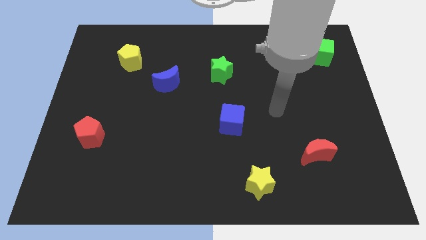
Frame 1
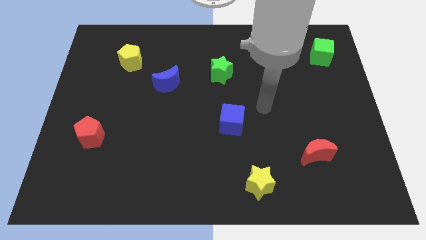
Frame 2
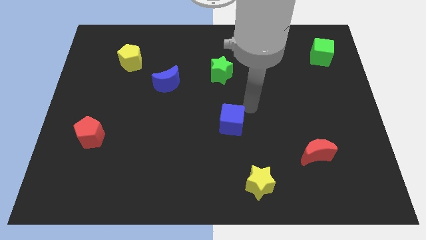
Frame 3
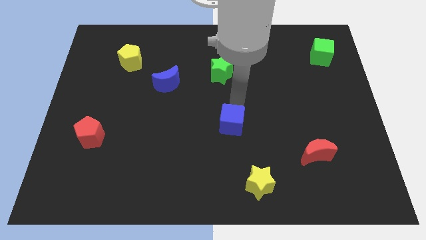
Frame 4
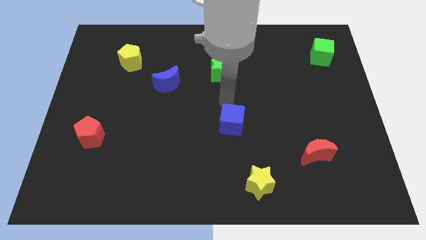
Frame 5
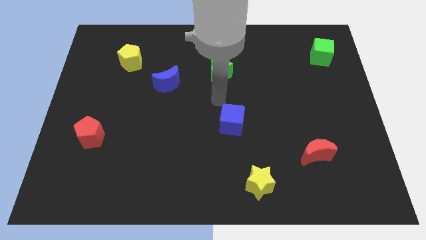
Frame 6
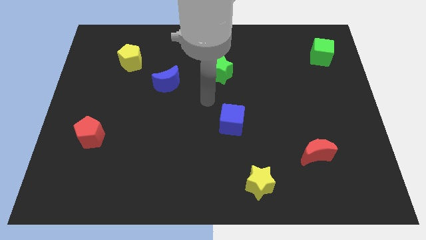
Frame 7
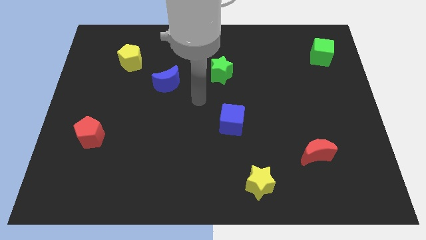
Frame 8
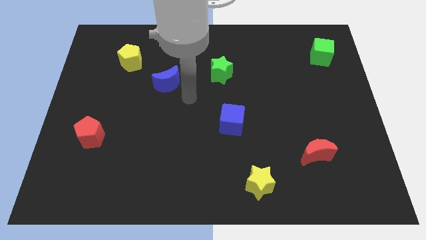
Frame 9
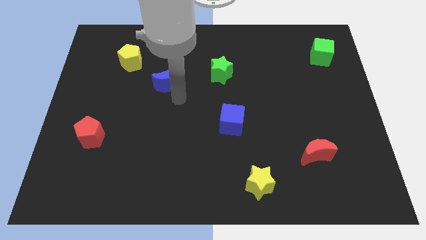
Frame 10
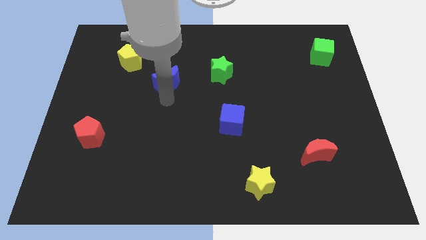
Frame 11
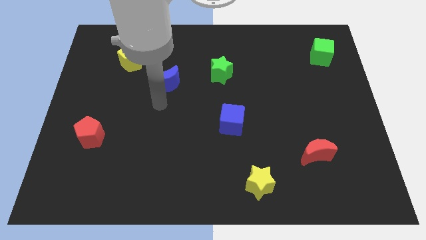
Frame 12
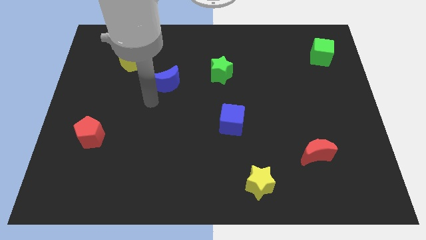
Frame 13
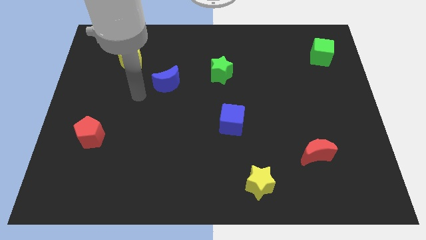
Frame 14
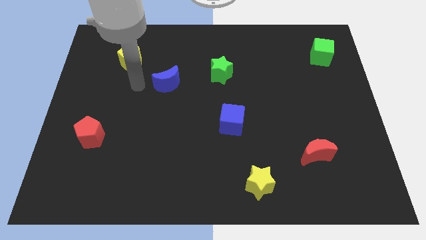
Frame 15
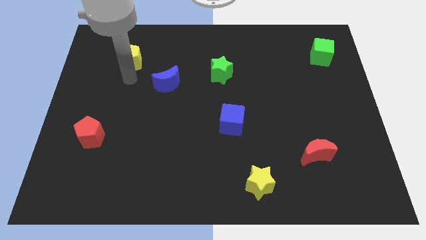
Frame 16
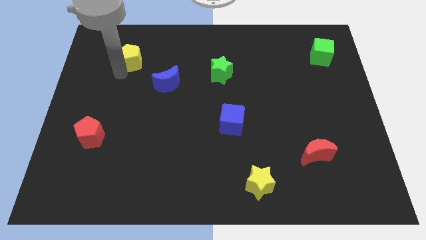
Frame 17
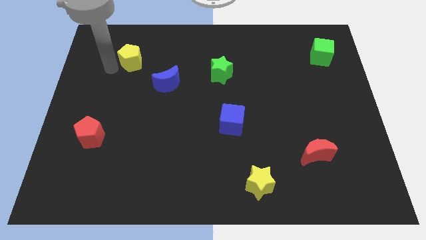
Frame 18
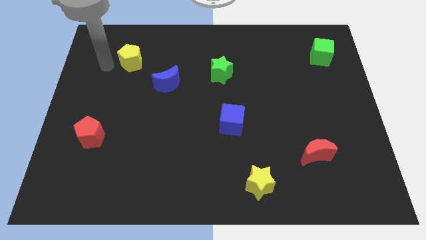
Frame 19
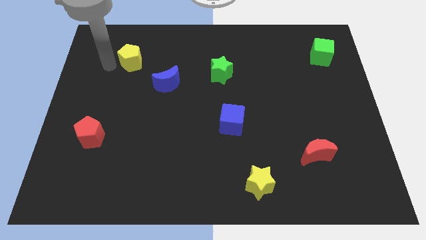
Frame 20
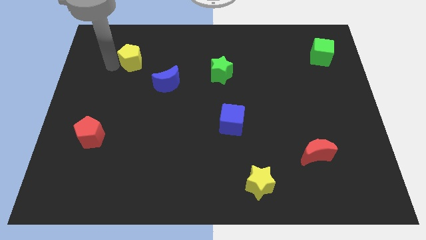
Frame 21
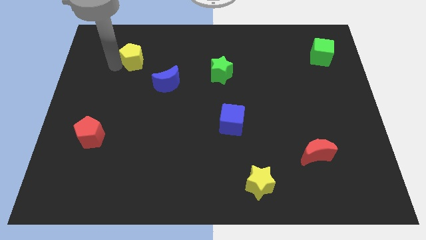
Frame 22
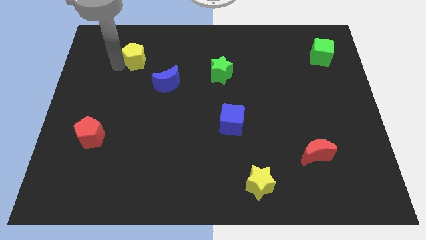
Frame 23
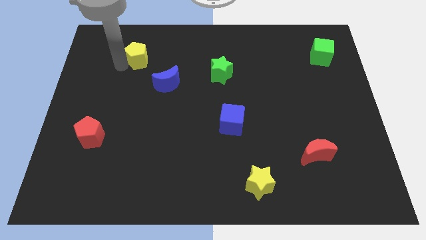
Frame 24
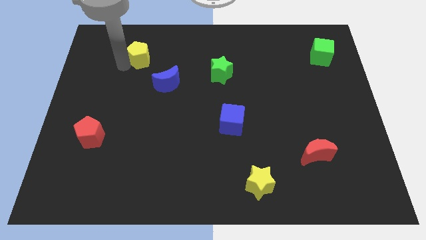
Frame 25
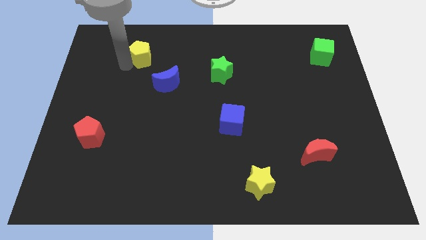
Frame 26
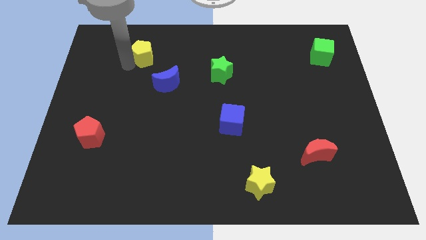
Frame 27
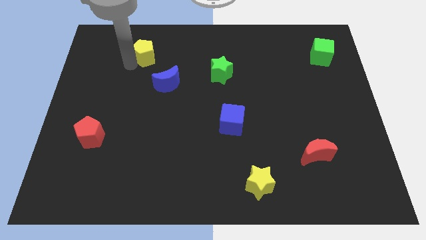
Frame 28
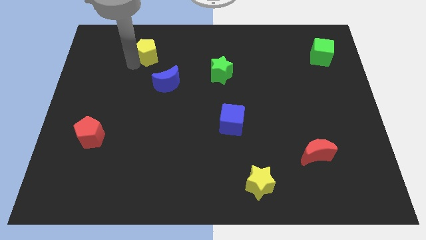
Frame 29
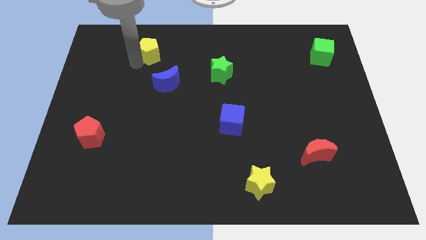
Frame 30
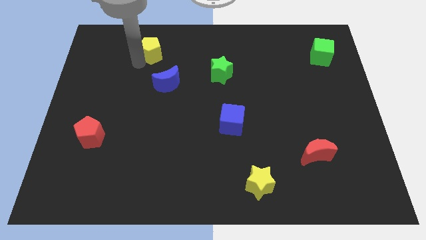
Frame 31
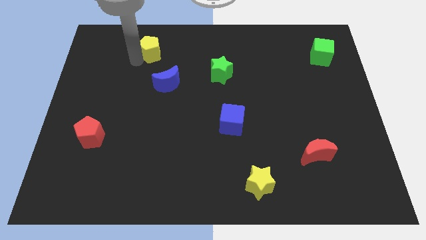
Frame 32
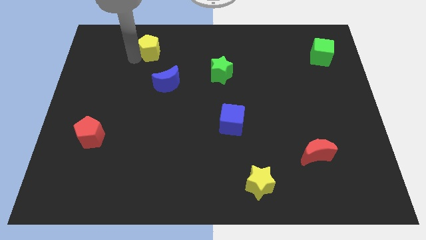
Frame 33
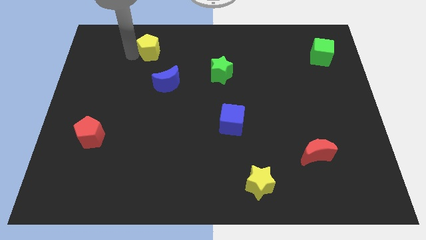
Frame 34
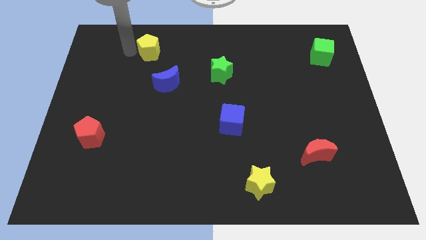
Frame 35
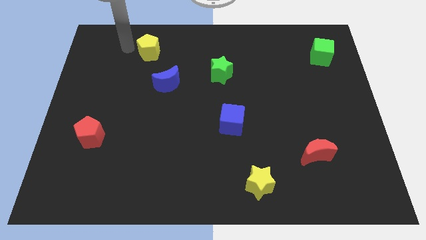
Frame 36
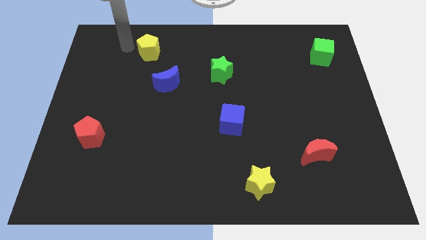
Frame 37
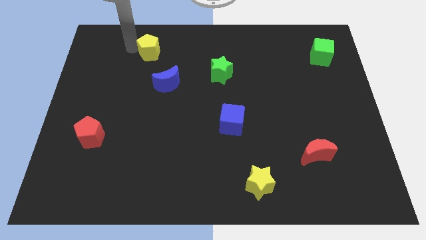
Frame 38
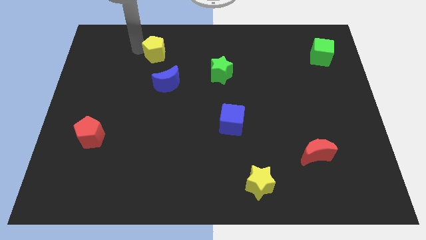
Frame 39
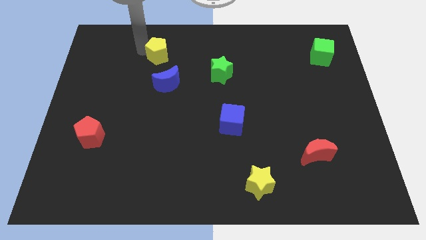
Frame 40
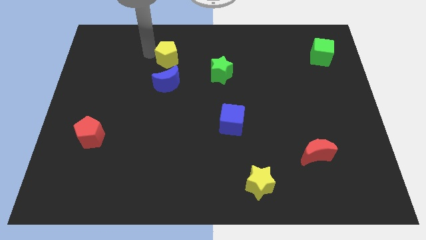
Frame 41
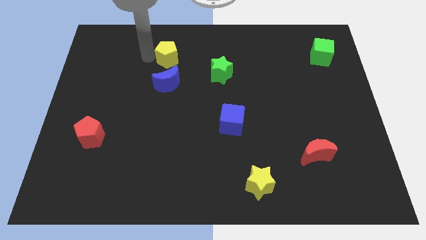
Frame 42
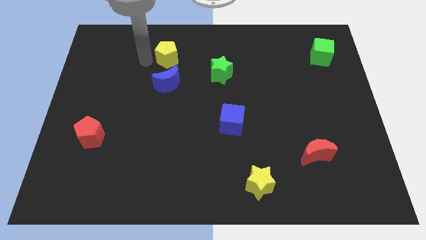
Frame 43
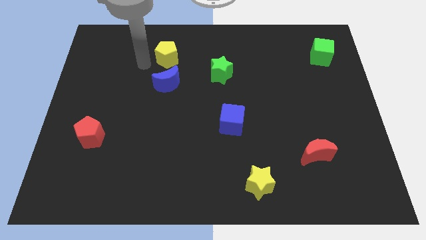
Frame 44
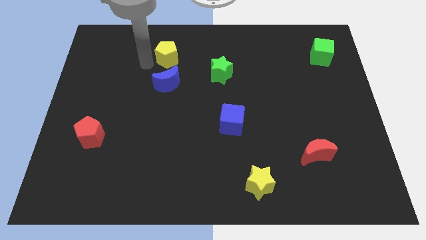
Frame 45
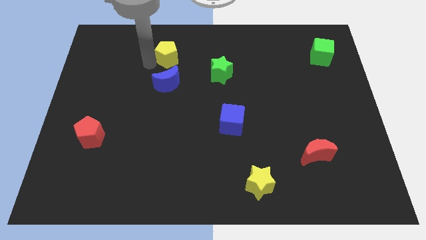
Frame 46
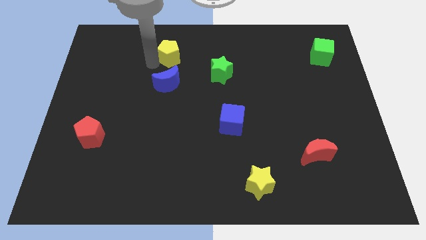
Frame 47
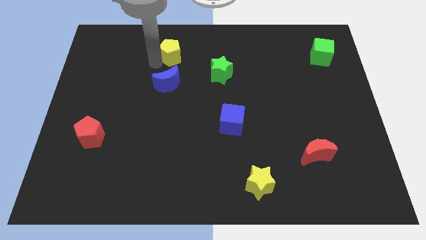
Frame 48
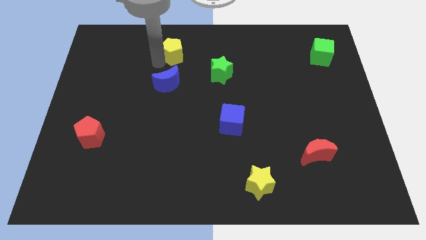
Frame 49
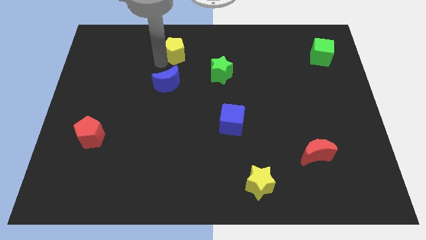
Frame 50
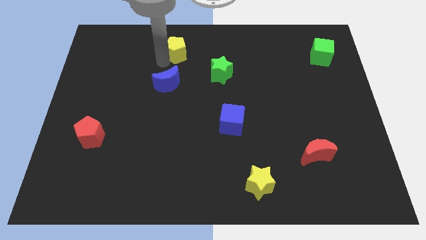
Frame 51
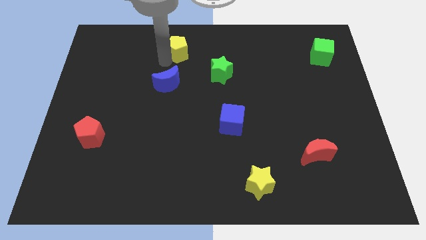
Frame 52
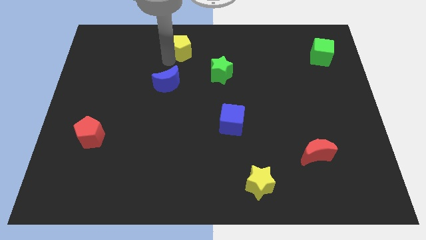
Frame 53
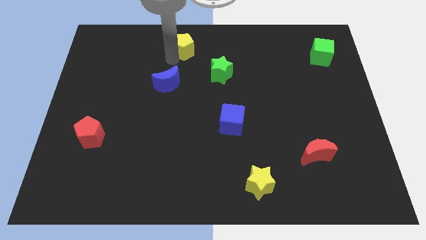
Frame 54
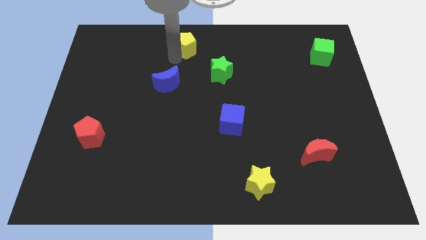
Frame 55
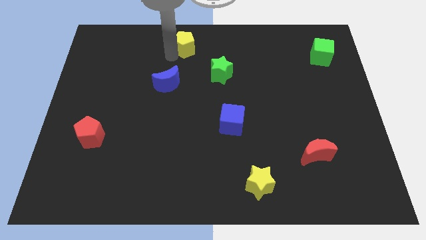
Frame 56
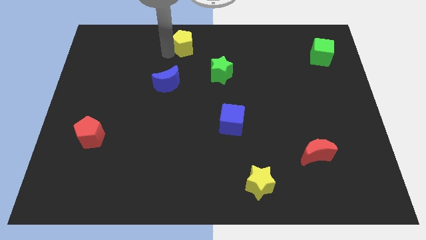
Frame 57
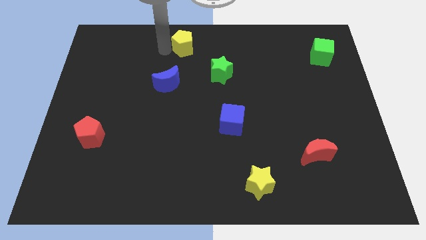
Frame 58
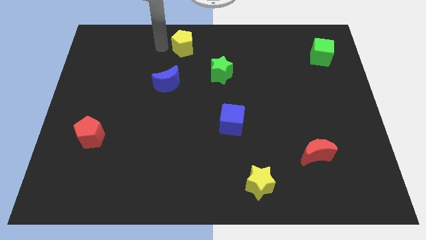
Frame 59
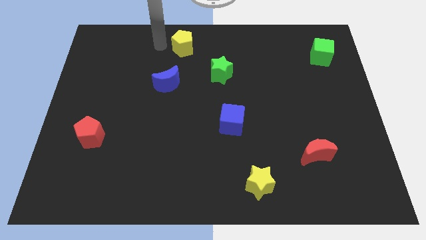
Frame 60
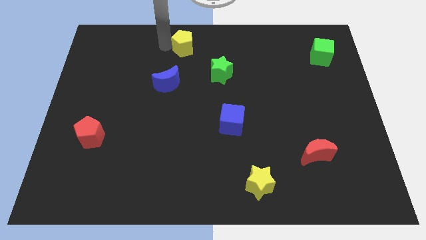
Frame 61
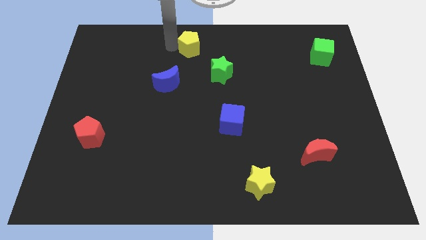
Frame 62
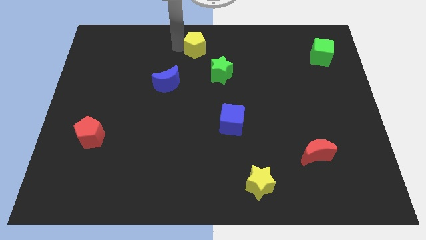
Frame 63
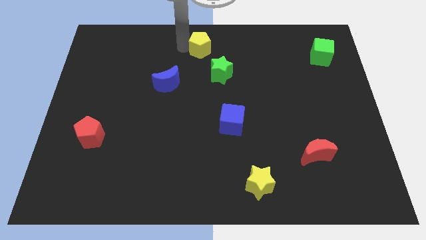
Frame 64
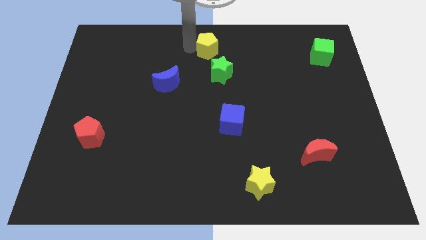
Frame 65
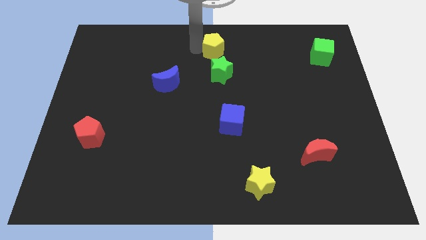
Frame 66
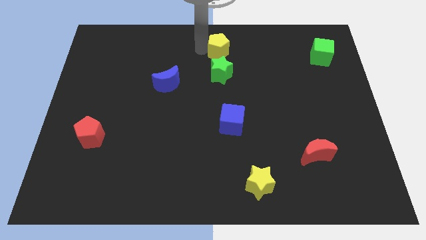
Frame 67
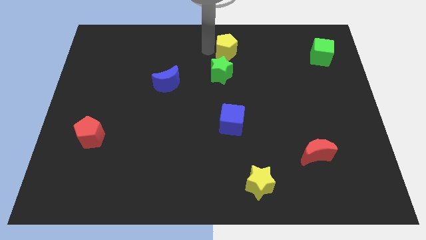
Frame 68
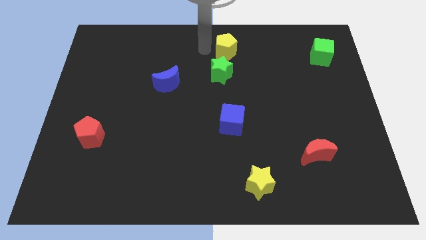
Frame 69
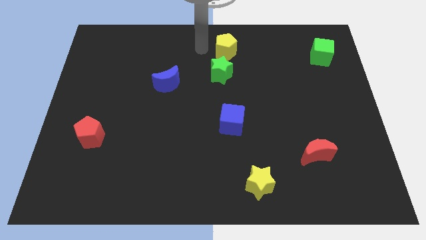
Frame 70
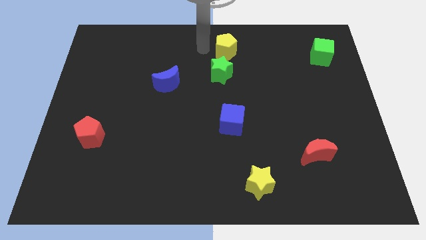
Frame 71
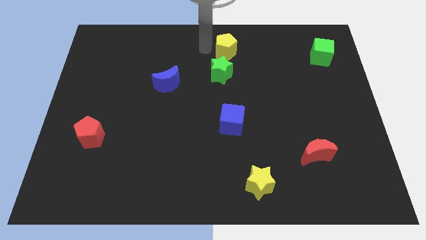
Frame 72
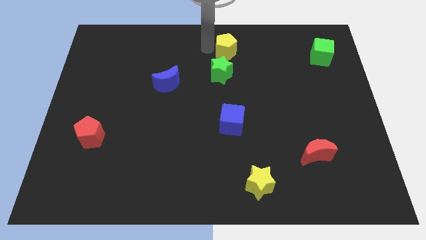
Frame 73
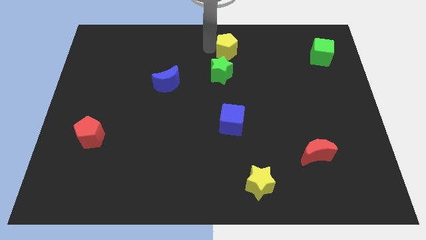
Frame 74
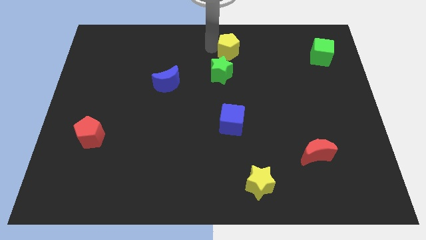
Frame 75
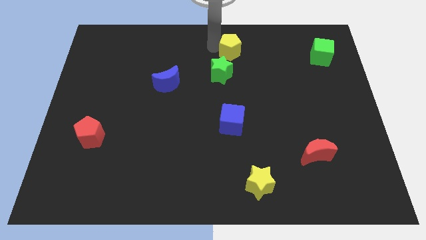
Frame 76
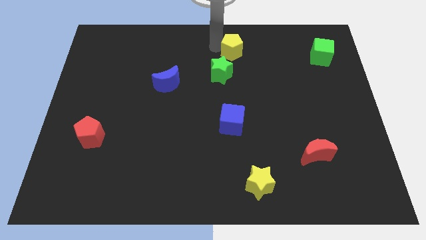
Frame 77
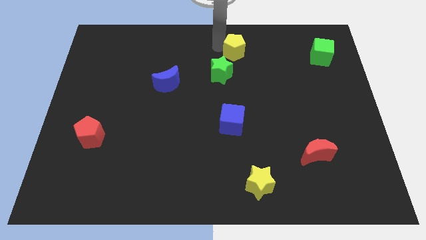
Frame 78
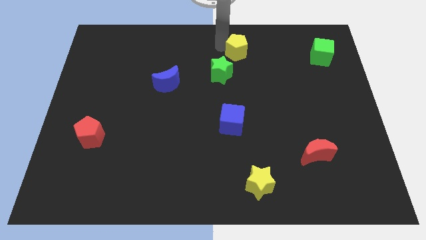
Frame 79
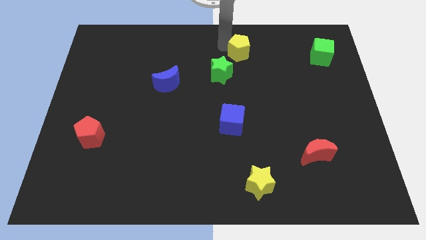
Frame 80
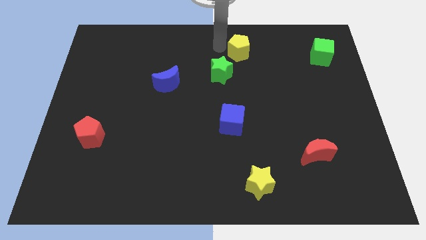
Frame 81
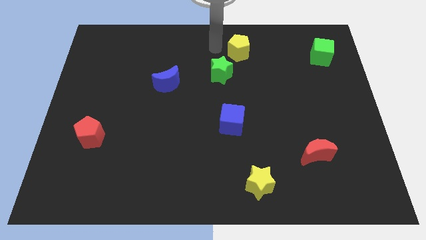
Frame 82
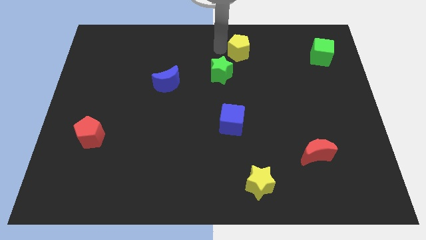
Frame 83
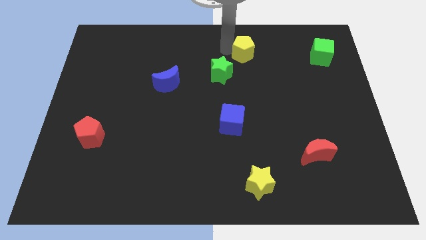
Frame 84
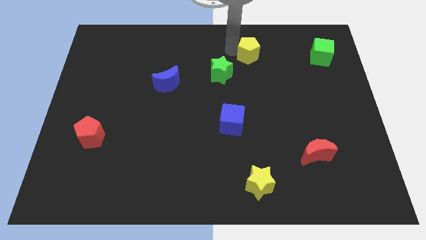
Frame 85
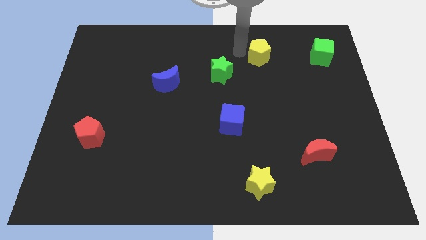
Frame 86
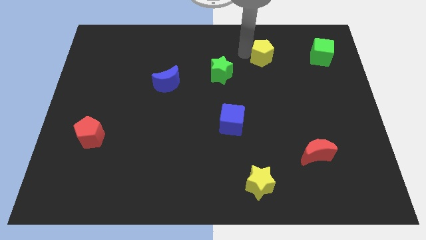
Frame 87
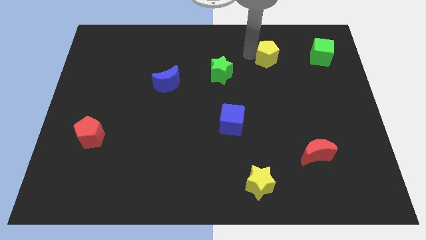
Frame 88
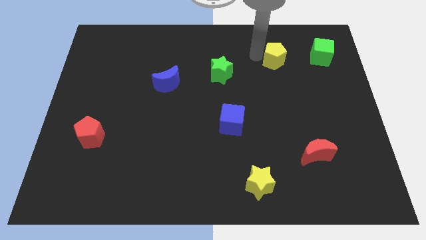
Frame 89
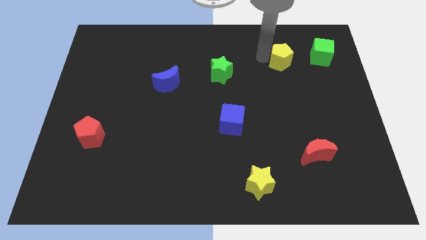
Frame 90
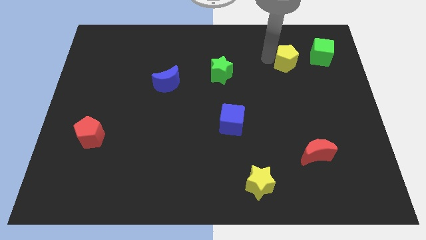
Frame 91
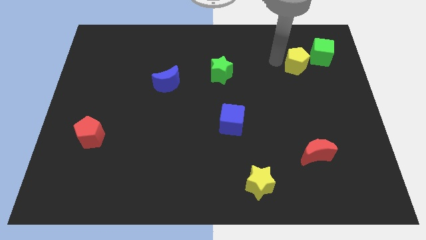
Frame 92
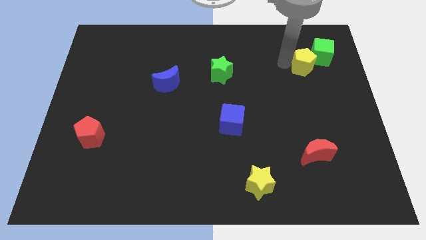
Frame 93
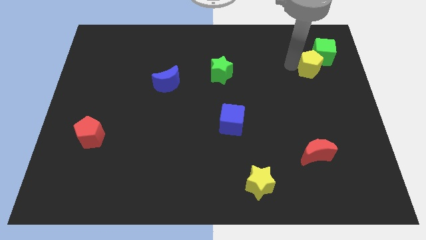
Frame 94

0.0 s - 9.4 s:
put the yellow pentagon next to the green cube
